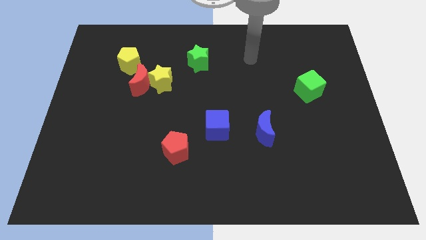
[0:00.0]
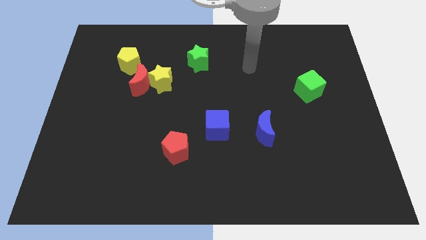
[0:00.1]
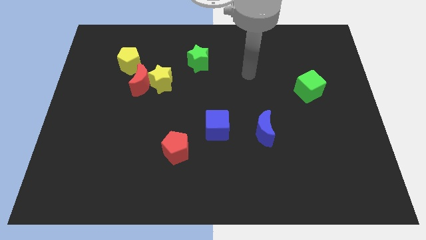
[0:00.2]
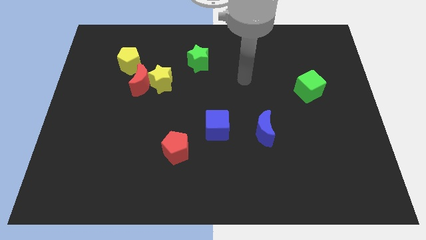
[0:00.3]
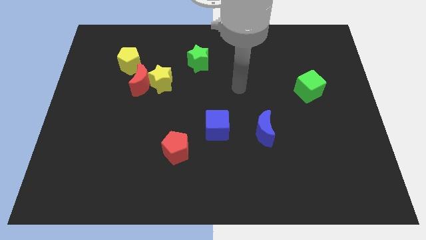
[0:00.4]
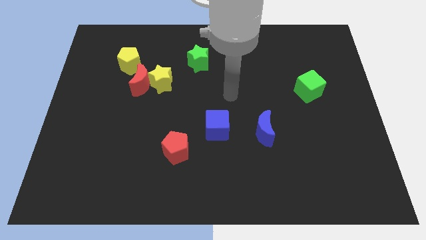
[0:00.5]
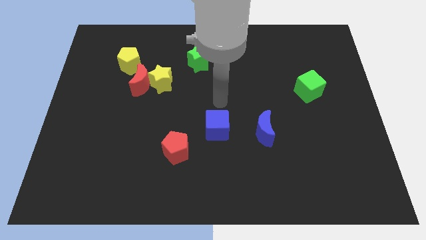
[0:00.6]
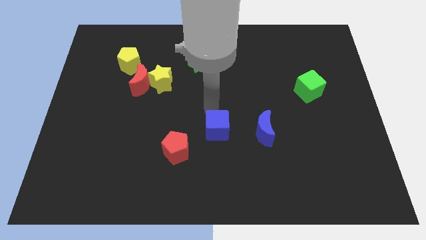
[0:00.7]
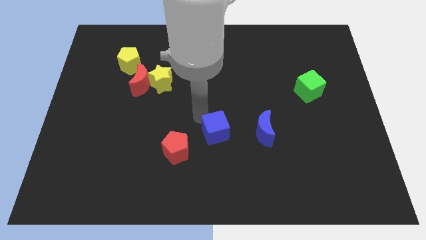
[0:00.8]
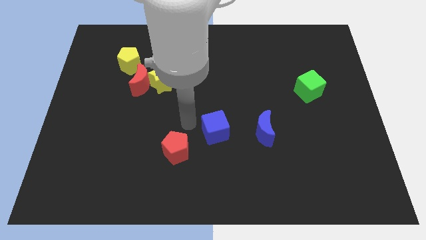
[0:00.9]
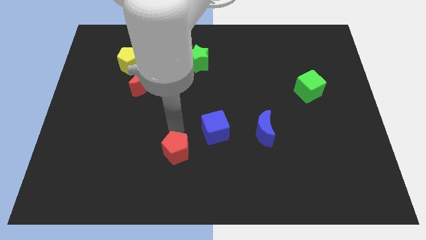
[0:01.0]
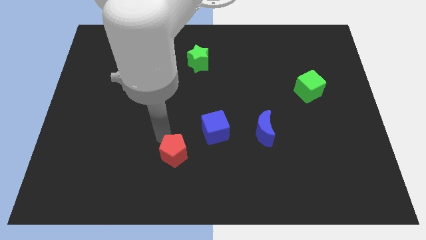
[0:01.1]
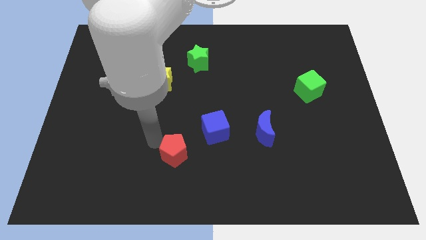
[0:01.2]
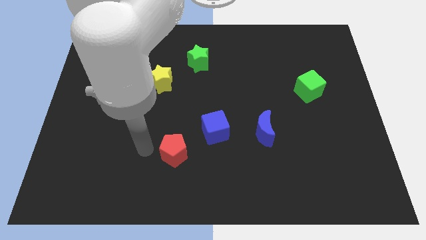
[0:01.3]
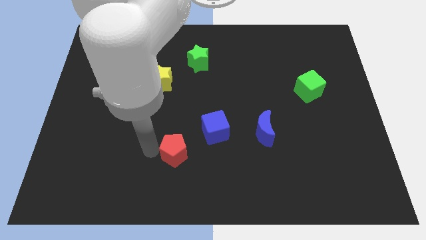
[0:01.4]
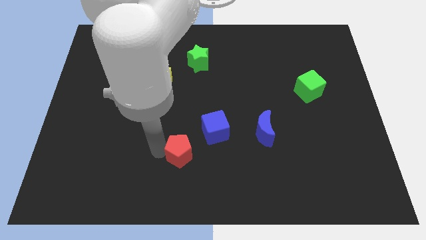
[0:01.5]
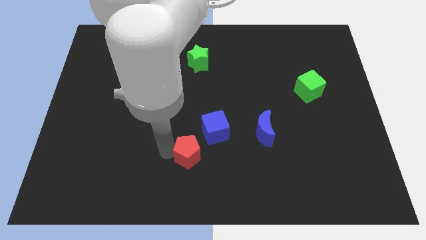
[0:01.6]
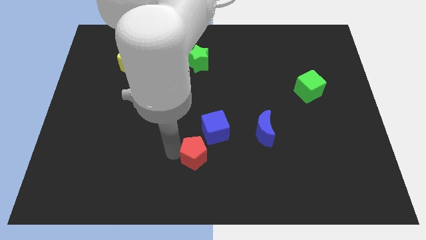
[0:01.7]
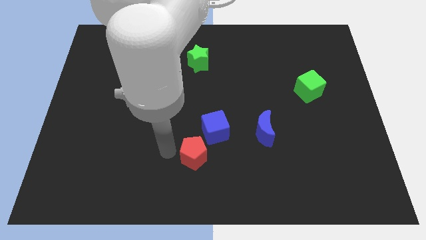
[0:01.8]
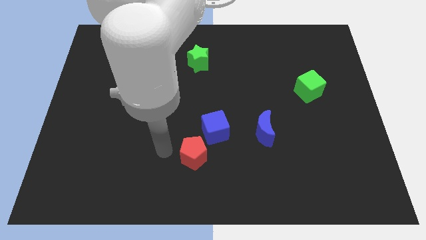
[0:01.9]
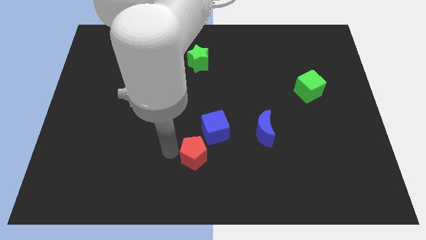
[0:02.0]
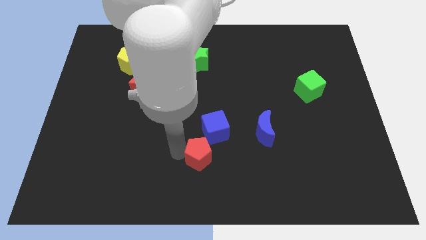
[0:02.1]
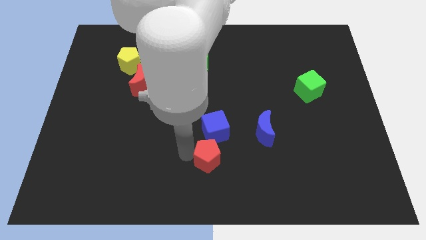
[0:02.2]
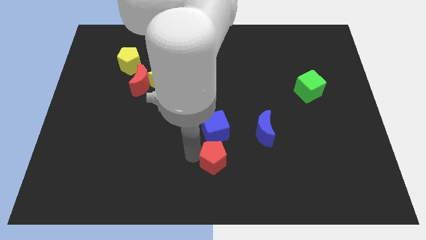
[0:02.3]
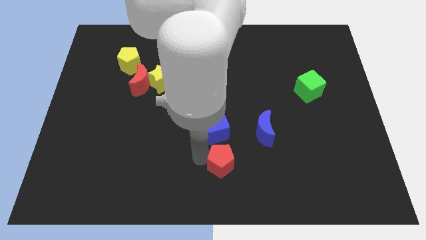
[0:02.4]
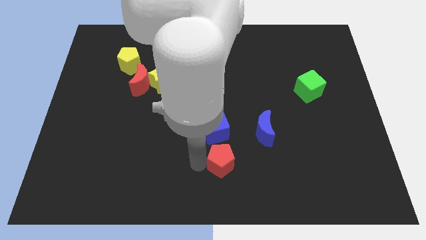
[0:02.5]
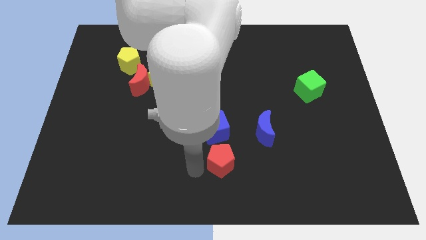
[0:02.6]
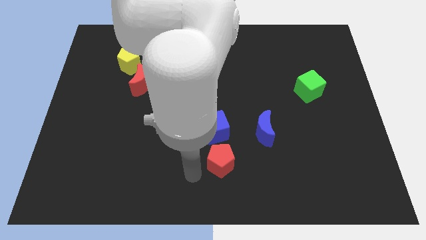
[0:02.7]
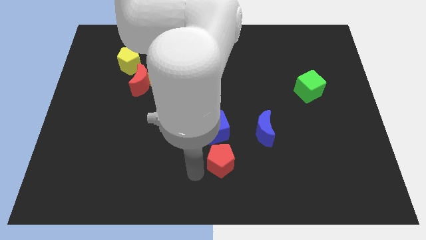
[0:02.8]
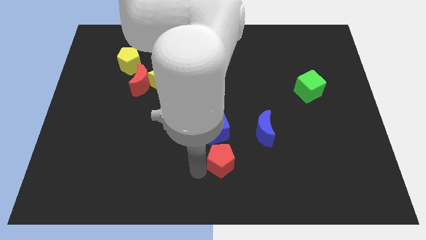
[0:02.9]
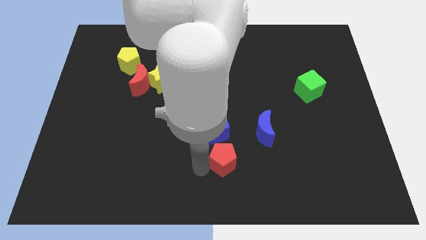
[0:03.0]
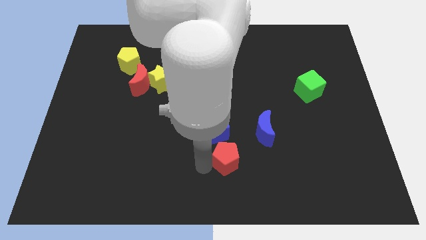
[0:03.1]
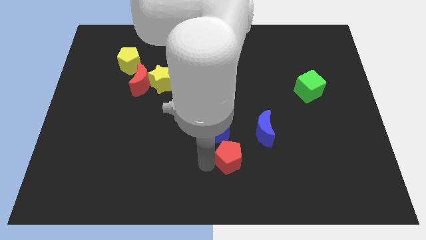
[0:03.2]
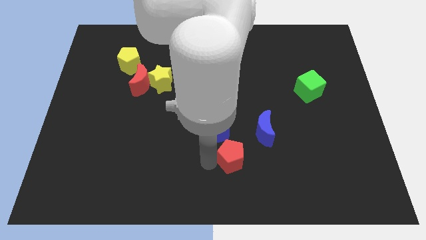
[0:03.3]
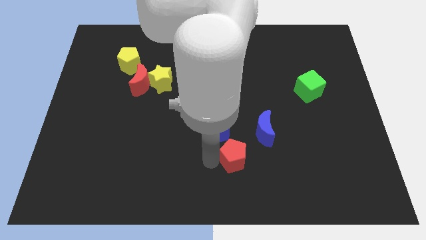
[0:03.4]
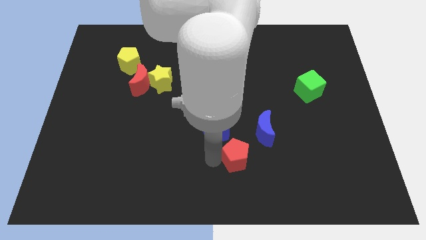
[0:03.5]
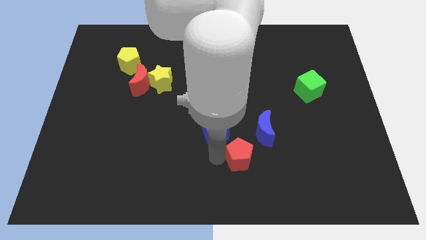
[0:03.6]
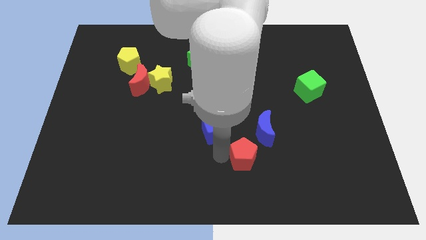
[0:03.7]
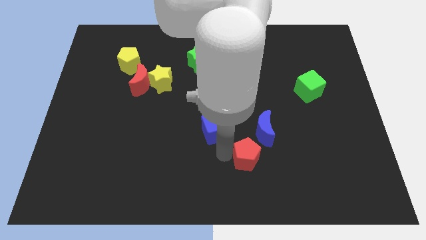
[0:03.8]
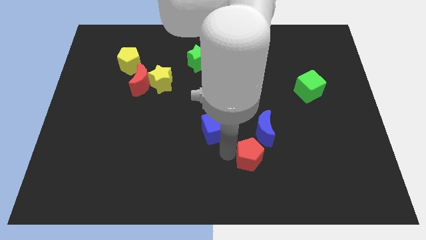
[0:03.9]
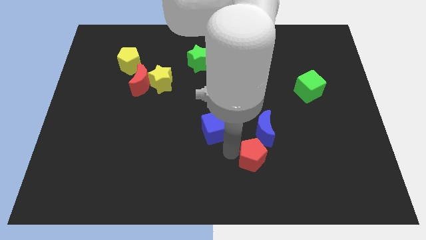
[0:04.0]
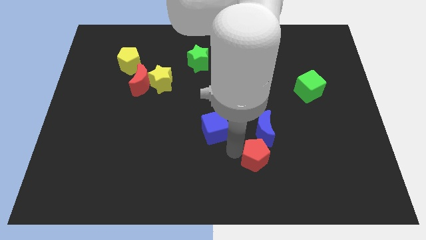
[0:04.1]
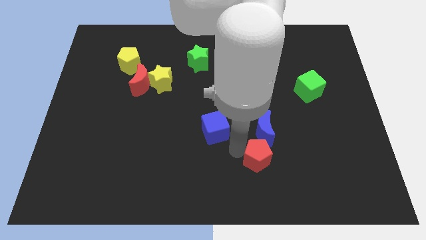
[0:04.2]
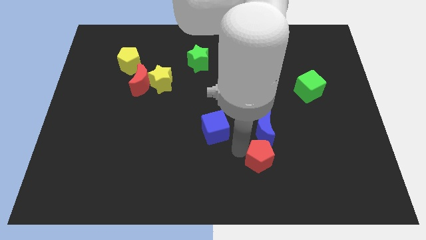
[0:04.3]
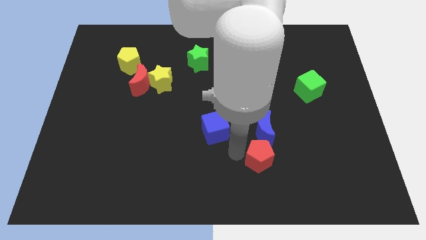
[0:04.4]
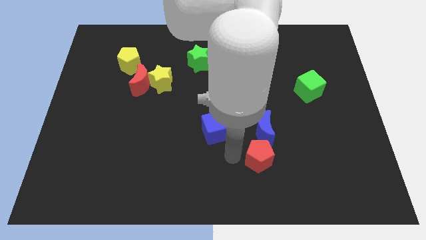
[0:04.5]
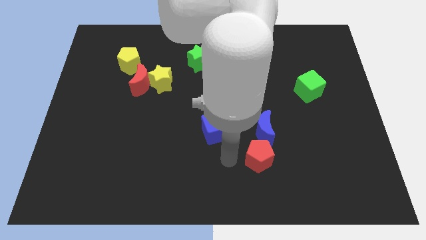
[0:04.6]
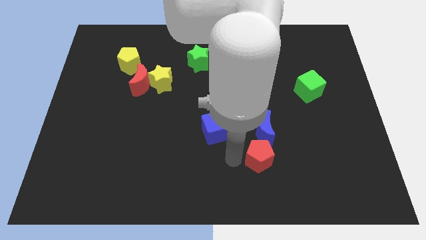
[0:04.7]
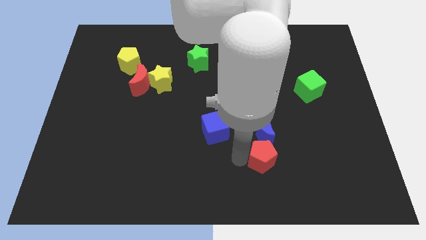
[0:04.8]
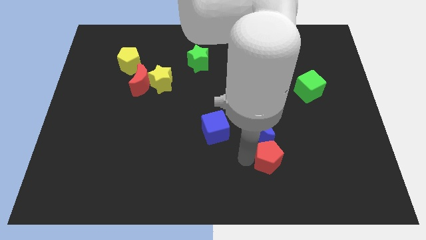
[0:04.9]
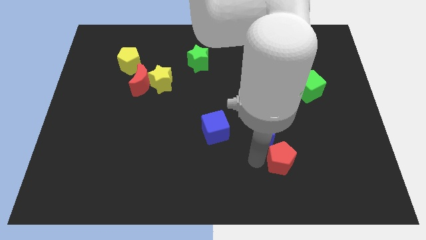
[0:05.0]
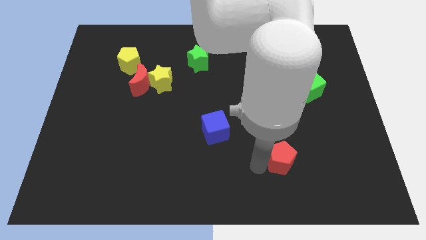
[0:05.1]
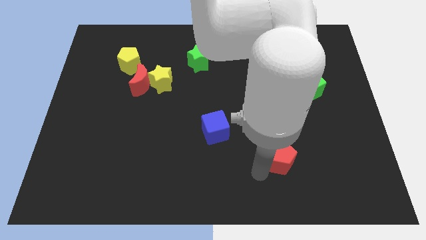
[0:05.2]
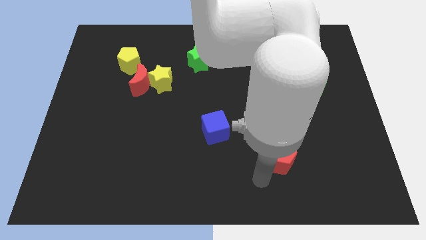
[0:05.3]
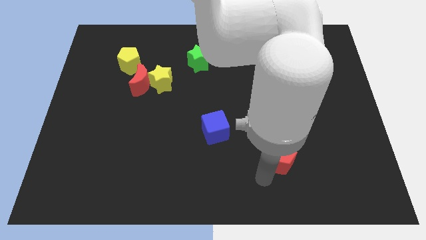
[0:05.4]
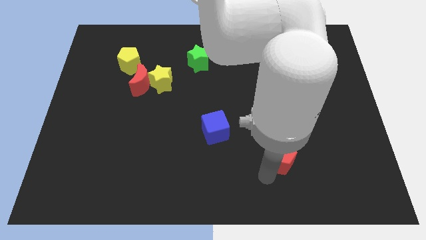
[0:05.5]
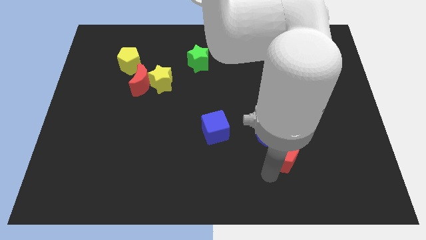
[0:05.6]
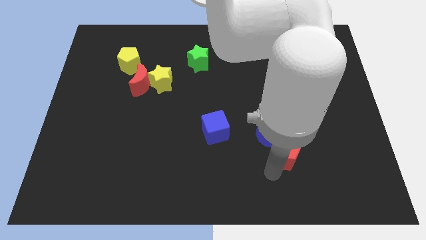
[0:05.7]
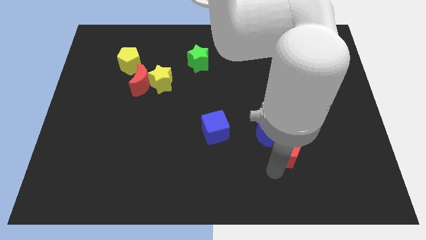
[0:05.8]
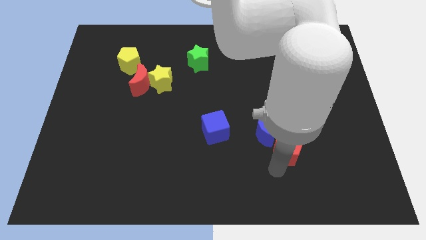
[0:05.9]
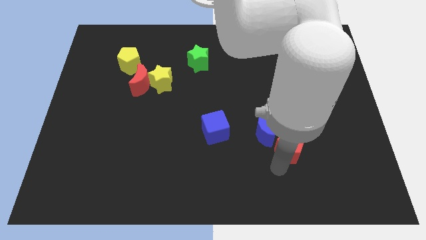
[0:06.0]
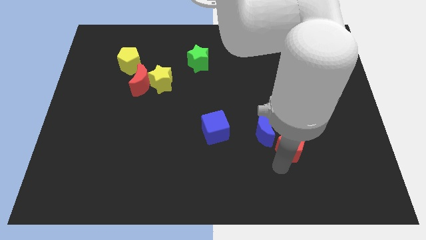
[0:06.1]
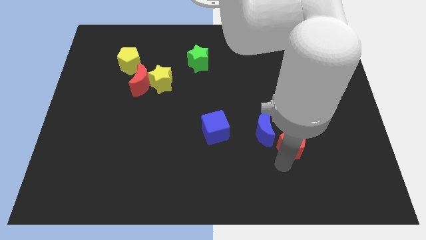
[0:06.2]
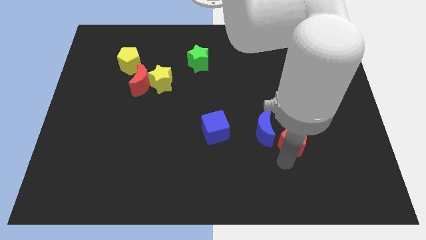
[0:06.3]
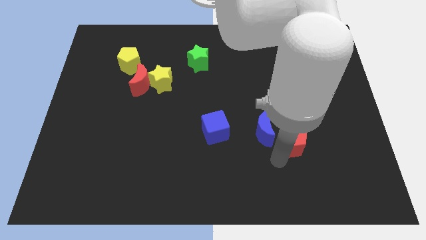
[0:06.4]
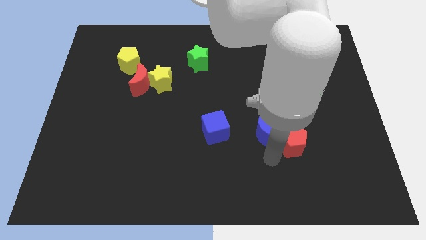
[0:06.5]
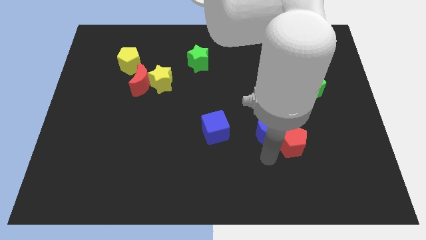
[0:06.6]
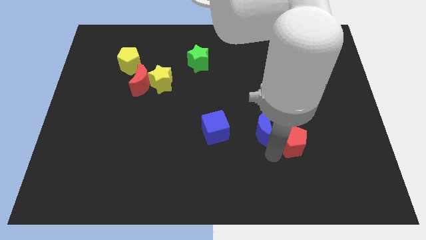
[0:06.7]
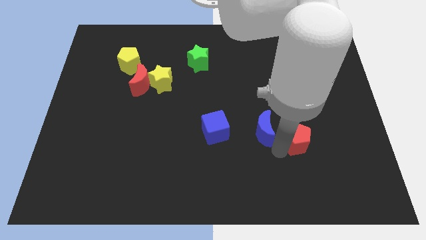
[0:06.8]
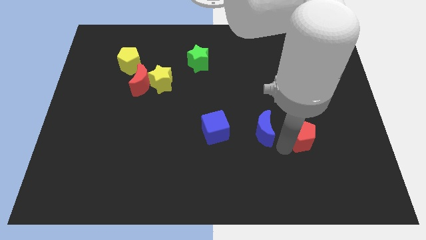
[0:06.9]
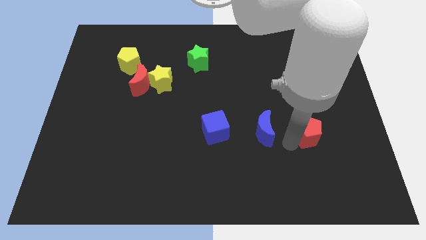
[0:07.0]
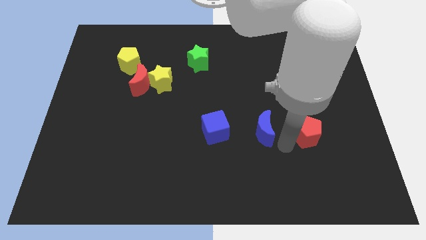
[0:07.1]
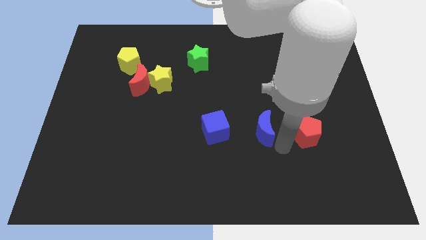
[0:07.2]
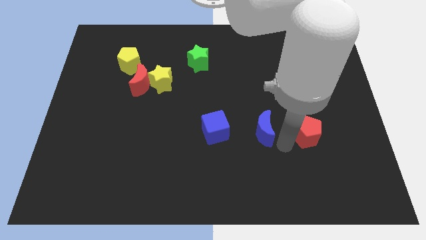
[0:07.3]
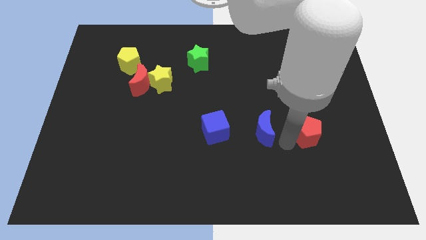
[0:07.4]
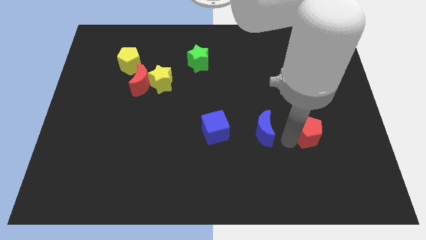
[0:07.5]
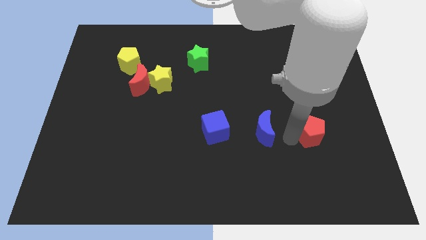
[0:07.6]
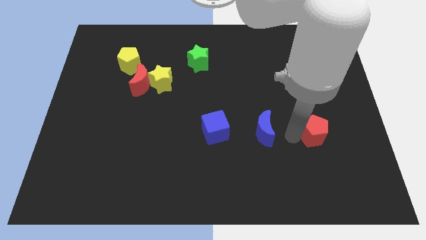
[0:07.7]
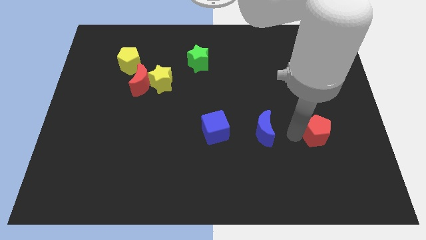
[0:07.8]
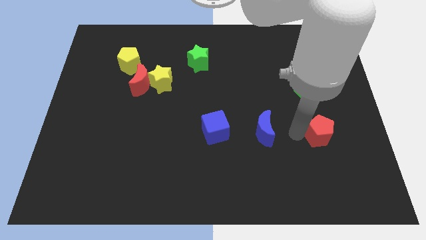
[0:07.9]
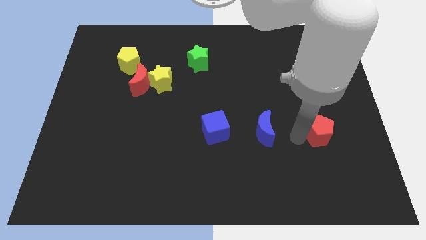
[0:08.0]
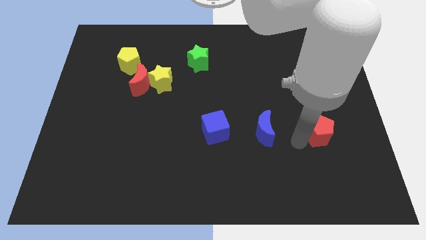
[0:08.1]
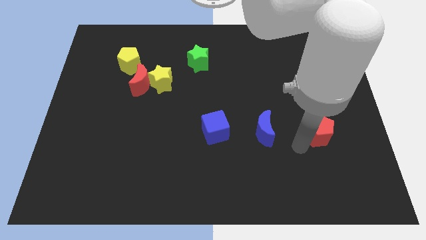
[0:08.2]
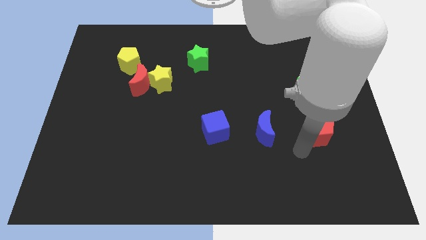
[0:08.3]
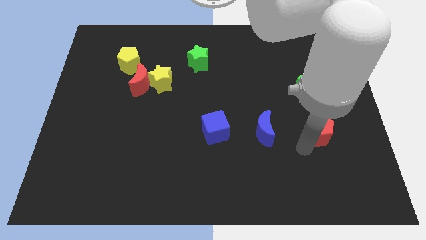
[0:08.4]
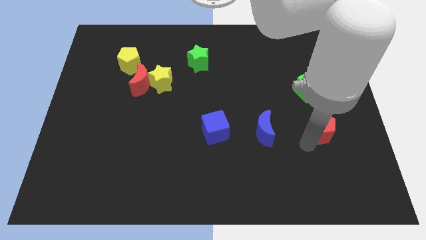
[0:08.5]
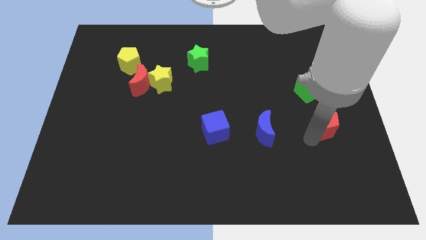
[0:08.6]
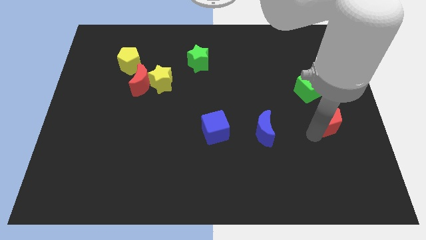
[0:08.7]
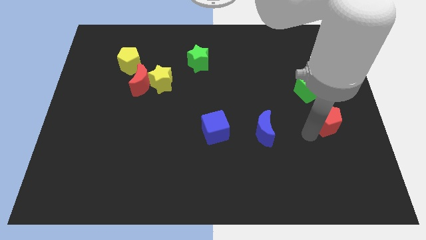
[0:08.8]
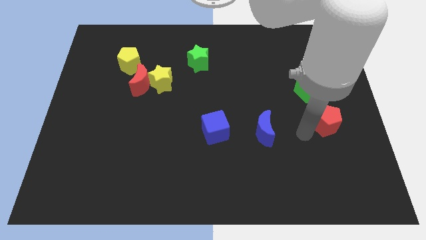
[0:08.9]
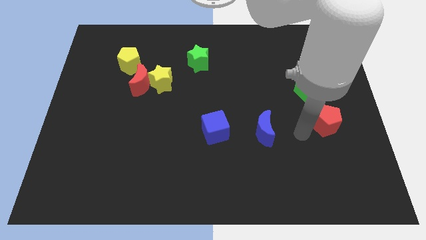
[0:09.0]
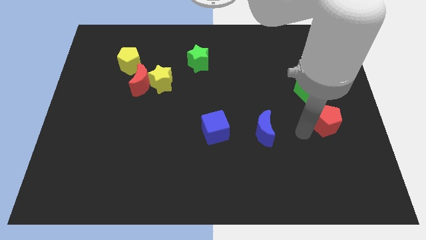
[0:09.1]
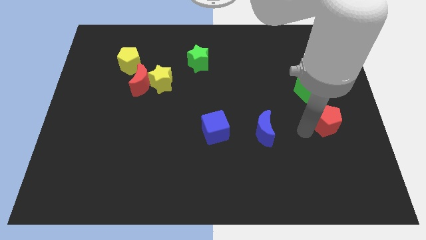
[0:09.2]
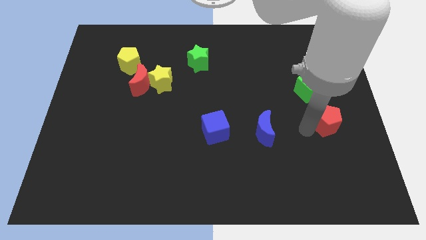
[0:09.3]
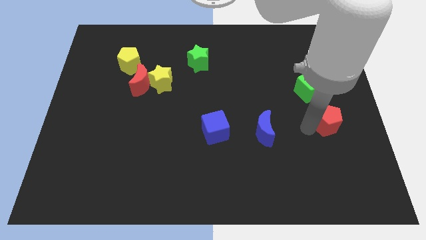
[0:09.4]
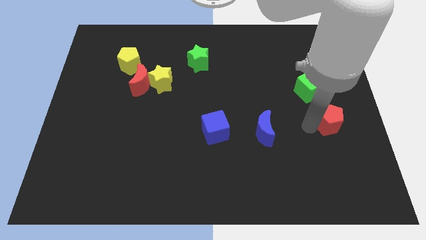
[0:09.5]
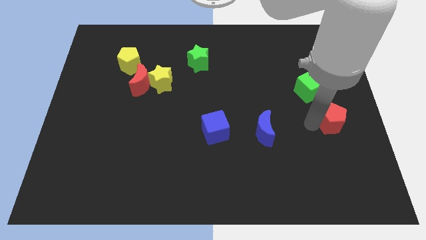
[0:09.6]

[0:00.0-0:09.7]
move the red pentagon to the center right
